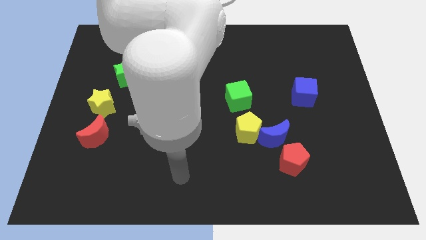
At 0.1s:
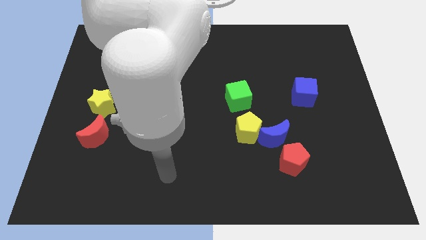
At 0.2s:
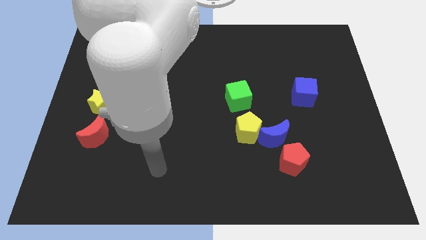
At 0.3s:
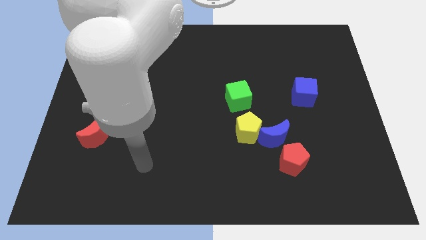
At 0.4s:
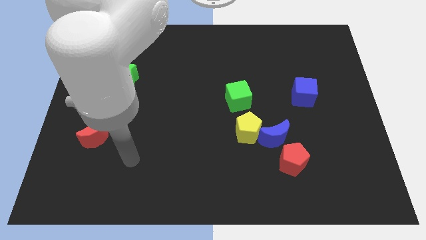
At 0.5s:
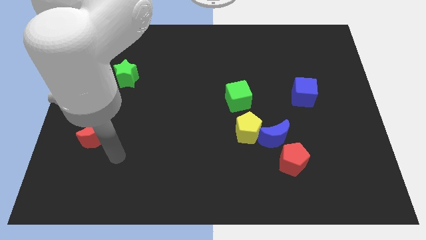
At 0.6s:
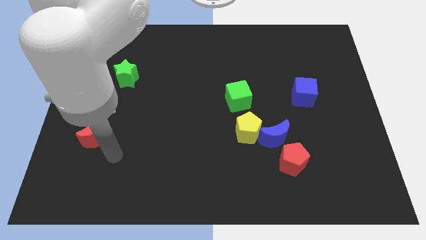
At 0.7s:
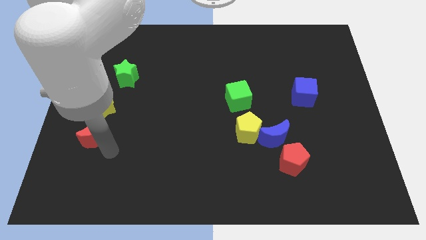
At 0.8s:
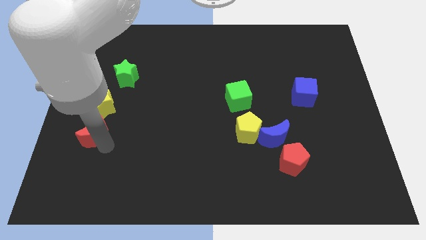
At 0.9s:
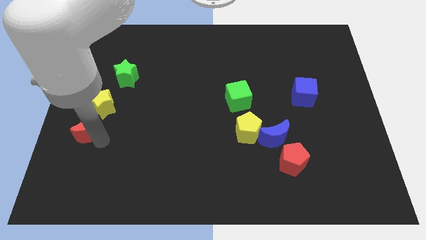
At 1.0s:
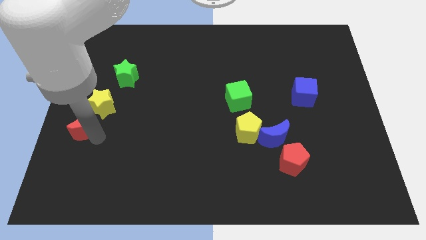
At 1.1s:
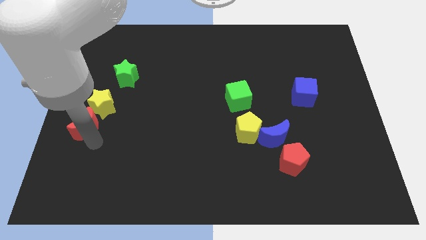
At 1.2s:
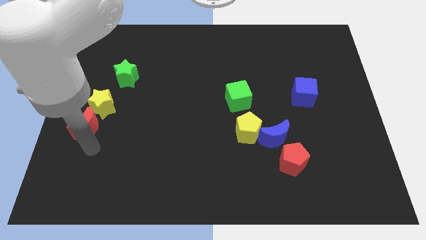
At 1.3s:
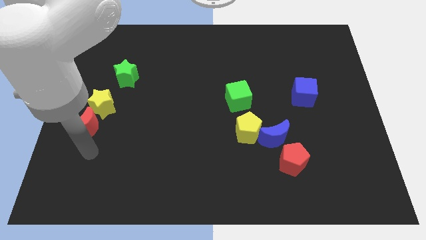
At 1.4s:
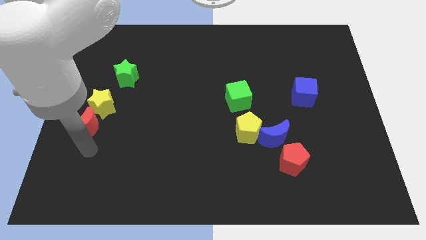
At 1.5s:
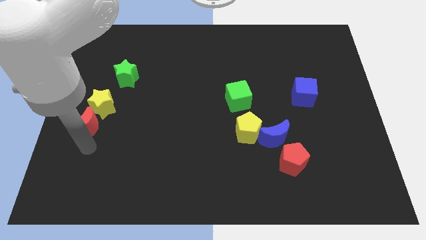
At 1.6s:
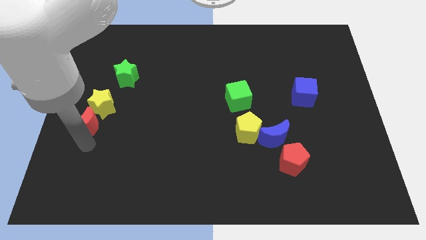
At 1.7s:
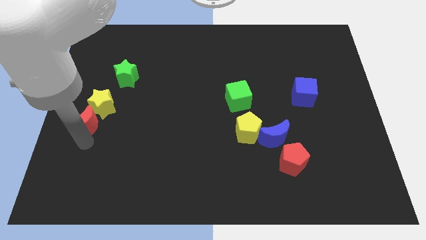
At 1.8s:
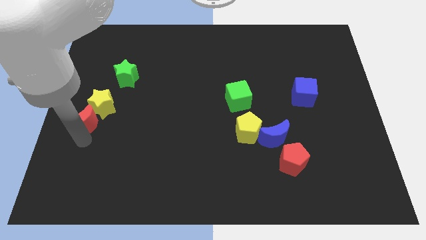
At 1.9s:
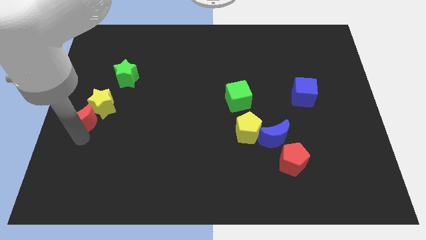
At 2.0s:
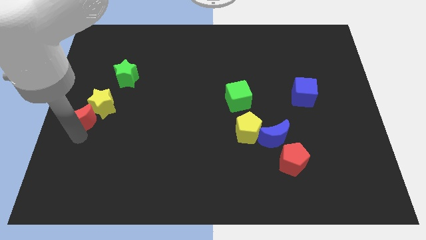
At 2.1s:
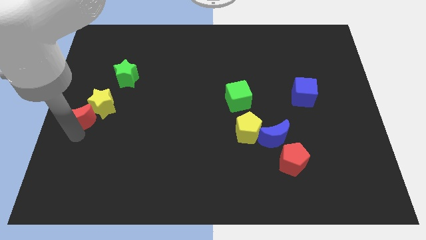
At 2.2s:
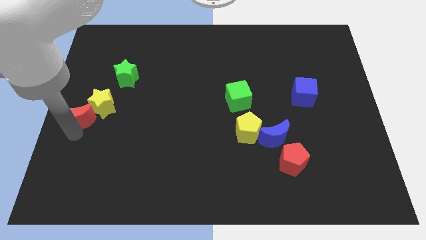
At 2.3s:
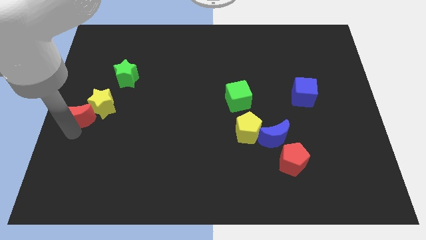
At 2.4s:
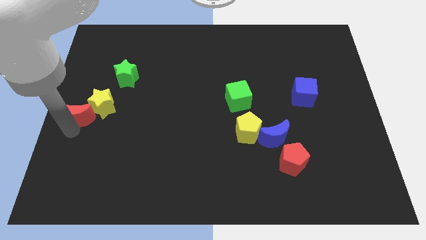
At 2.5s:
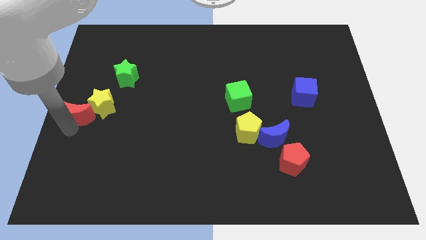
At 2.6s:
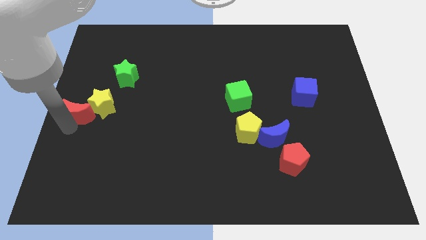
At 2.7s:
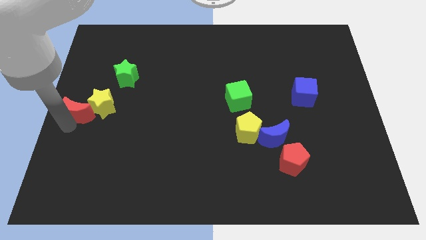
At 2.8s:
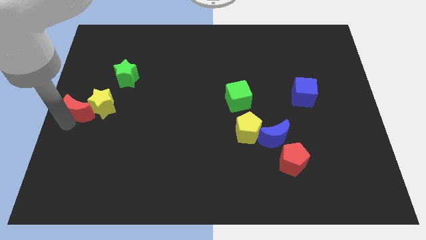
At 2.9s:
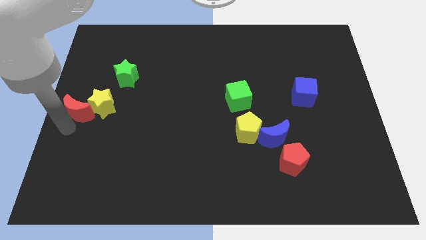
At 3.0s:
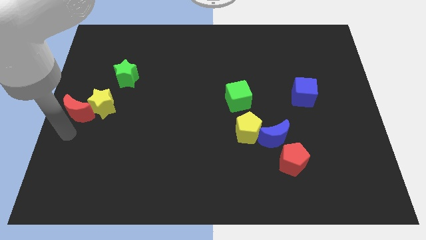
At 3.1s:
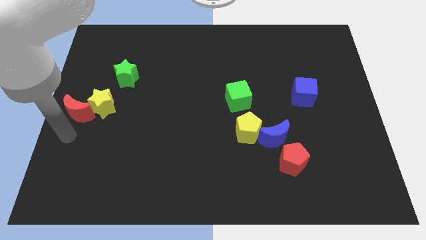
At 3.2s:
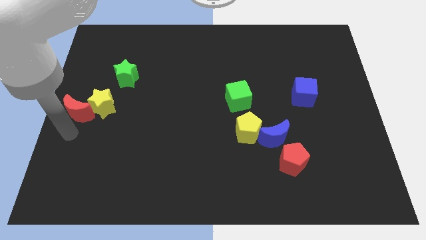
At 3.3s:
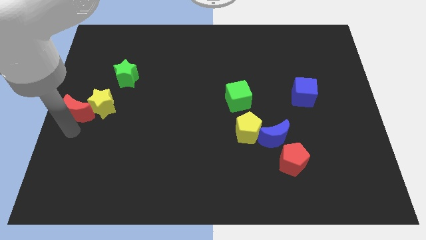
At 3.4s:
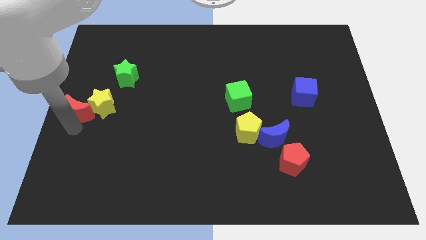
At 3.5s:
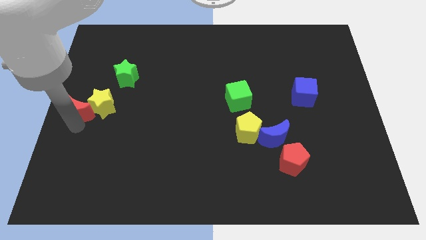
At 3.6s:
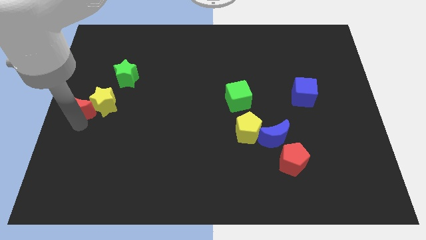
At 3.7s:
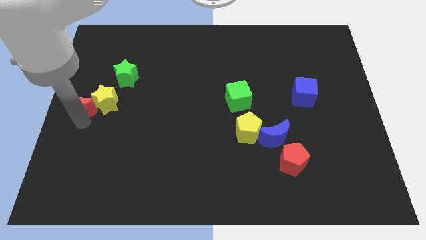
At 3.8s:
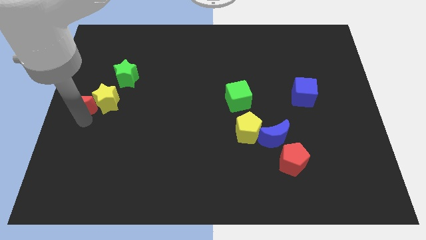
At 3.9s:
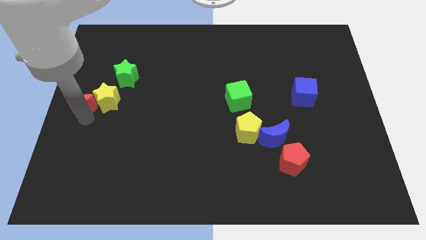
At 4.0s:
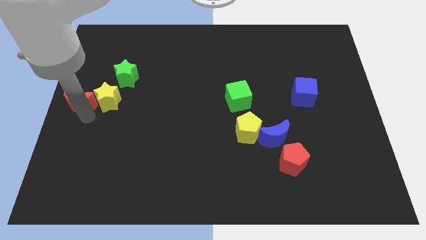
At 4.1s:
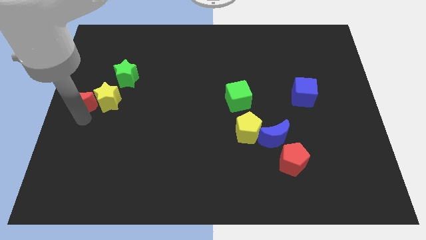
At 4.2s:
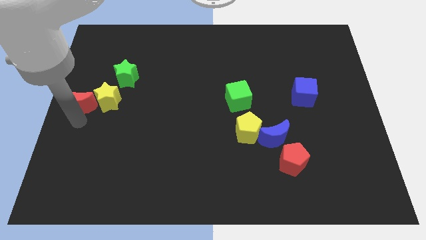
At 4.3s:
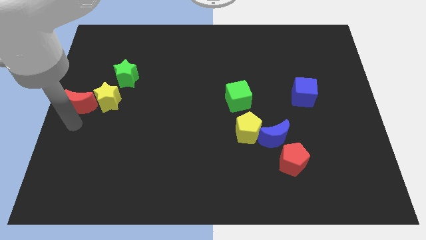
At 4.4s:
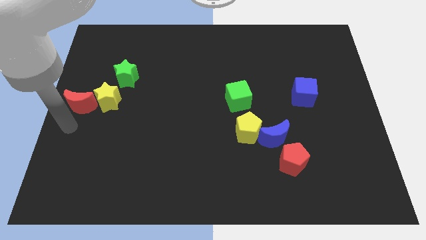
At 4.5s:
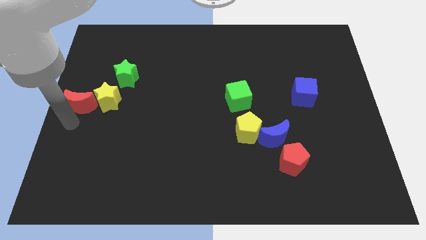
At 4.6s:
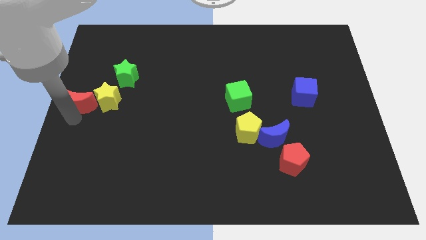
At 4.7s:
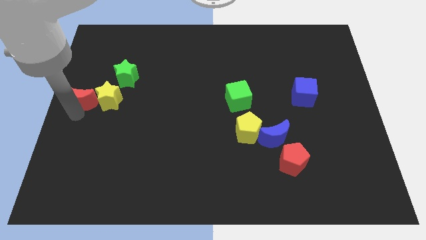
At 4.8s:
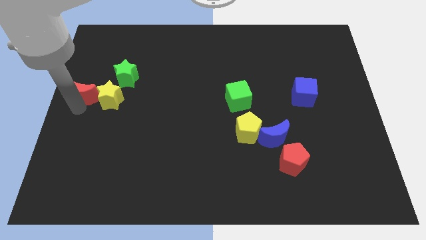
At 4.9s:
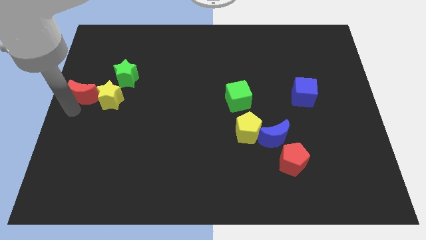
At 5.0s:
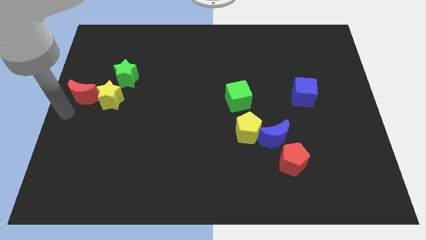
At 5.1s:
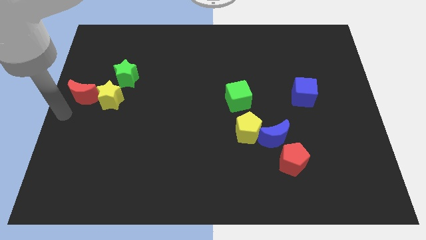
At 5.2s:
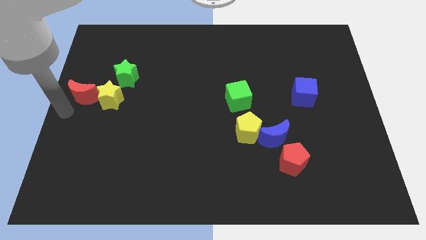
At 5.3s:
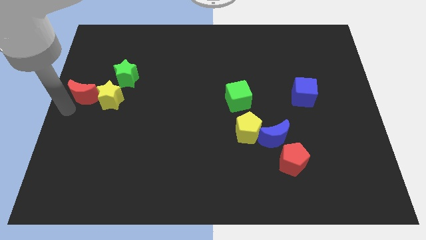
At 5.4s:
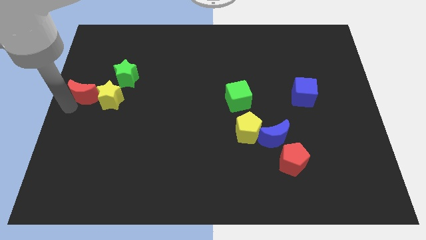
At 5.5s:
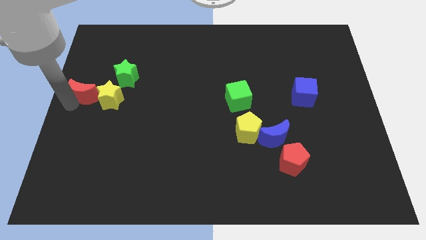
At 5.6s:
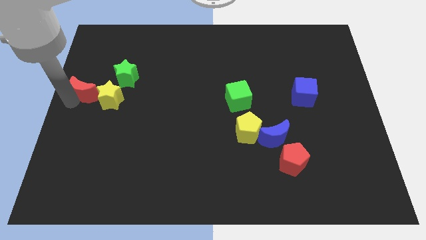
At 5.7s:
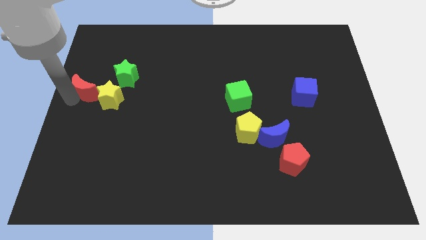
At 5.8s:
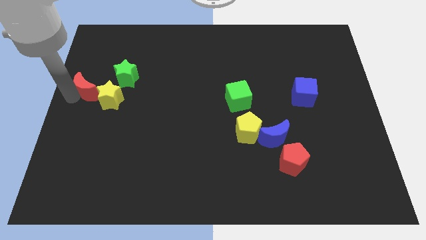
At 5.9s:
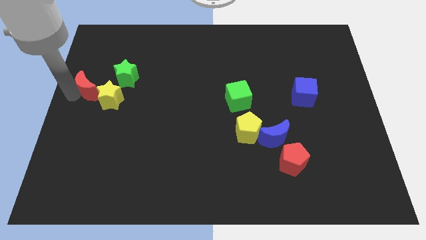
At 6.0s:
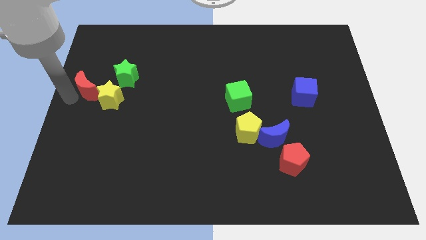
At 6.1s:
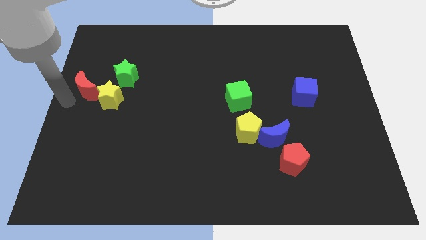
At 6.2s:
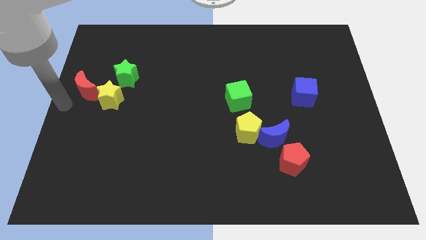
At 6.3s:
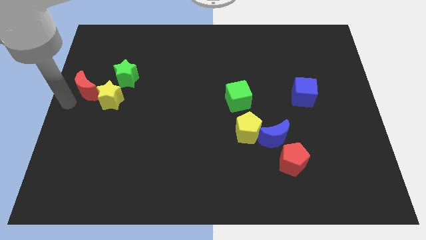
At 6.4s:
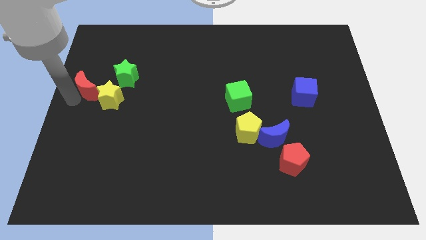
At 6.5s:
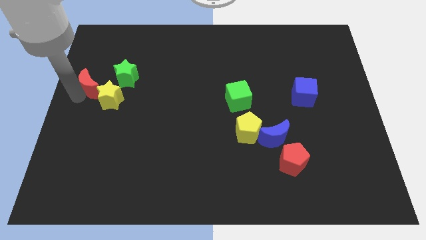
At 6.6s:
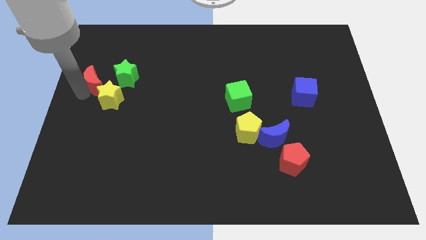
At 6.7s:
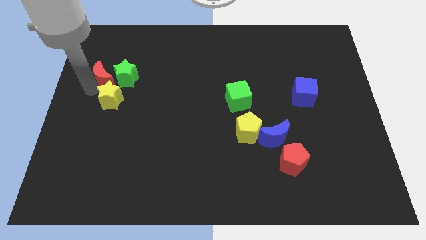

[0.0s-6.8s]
put the red moon to the top left side of the green star

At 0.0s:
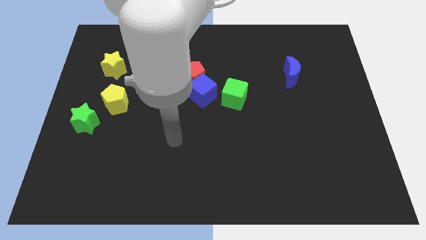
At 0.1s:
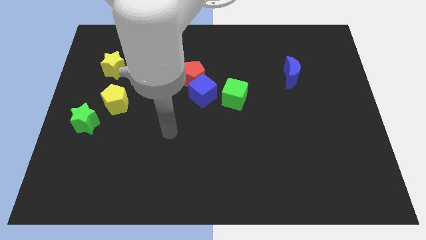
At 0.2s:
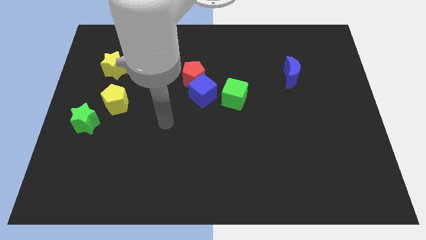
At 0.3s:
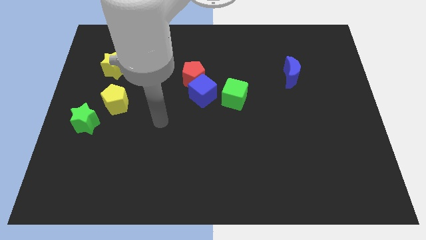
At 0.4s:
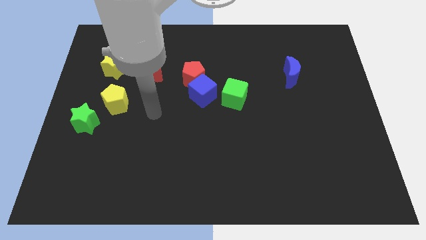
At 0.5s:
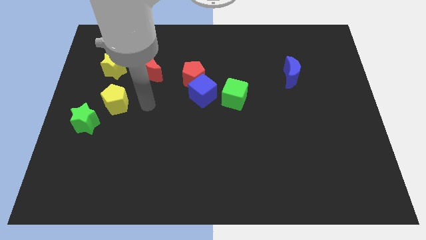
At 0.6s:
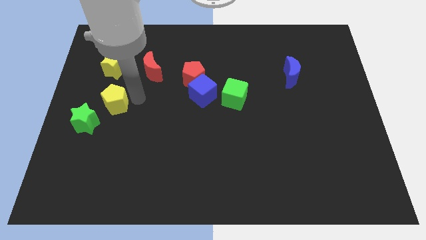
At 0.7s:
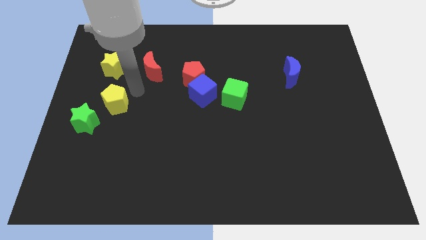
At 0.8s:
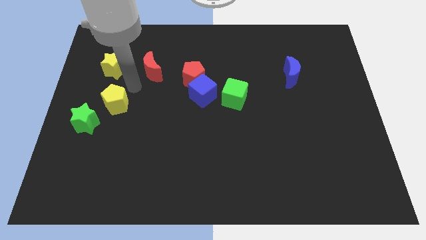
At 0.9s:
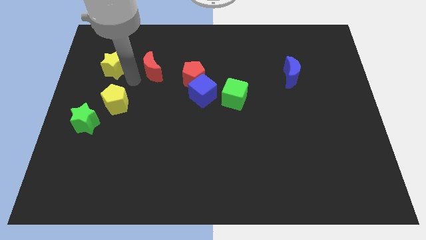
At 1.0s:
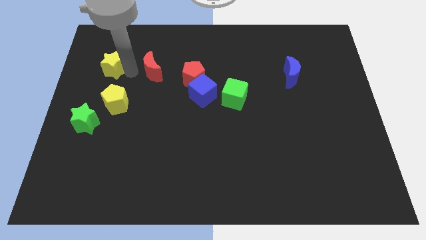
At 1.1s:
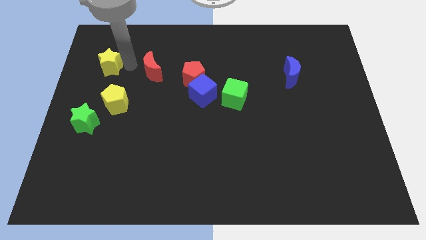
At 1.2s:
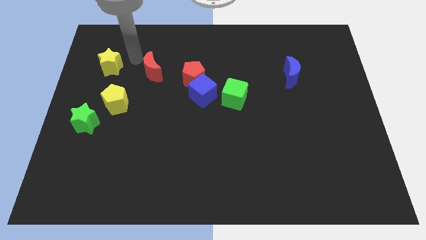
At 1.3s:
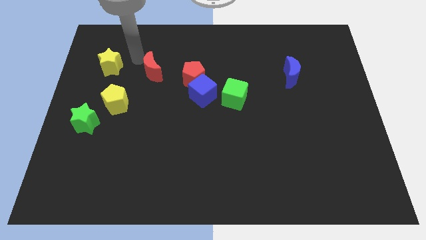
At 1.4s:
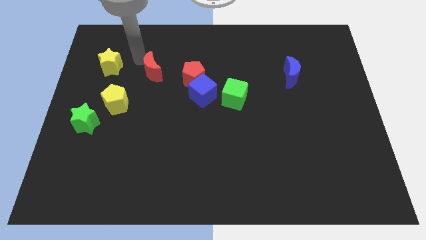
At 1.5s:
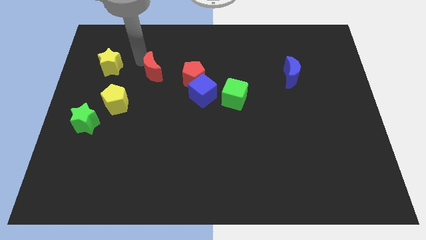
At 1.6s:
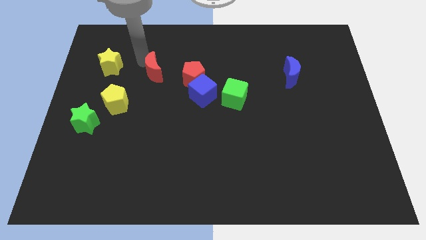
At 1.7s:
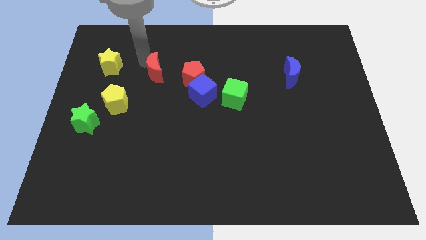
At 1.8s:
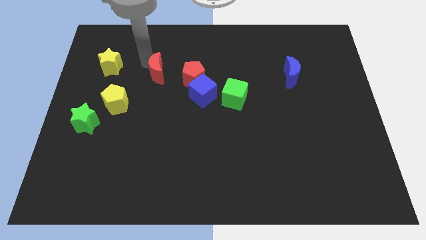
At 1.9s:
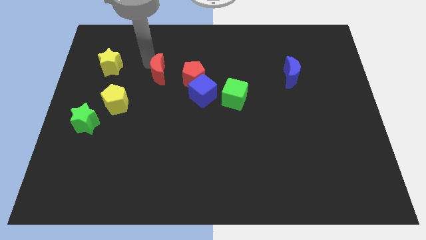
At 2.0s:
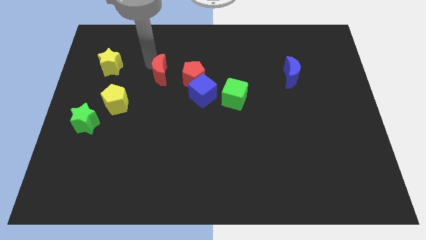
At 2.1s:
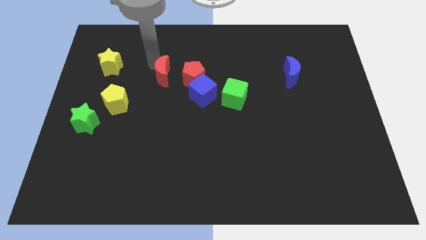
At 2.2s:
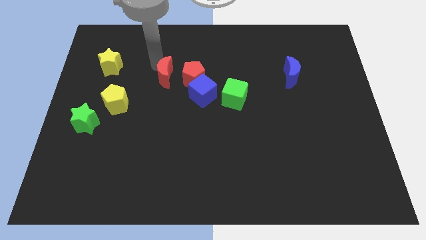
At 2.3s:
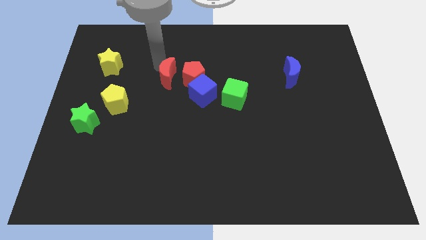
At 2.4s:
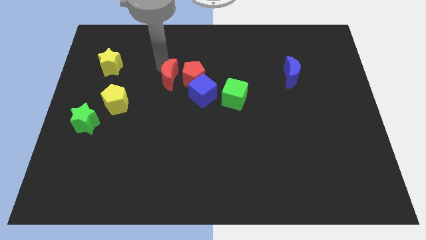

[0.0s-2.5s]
move the red moon to the bottom left side of the red pentagon
